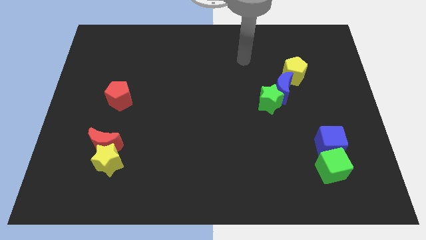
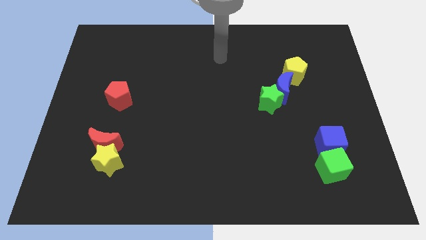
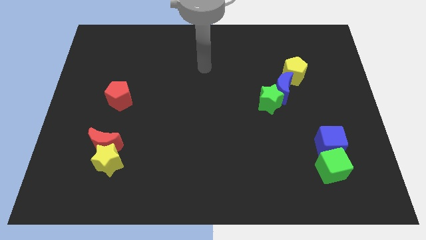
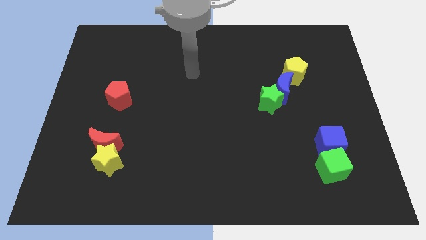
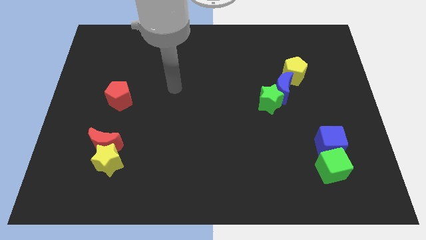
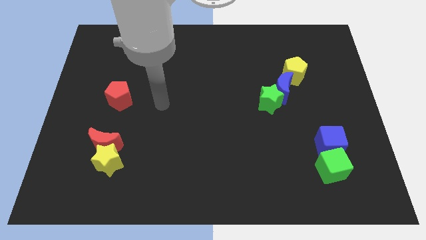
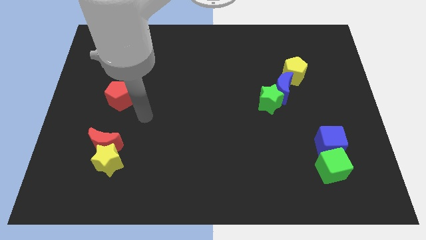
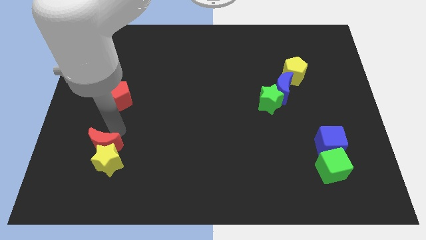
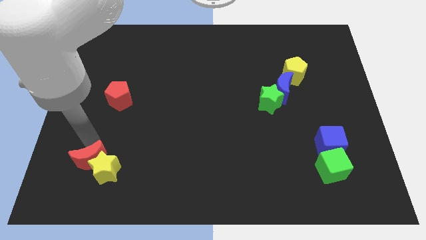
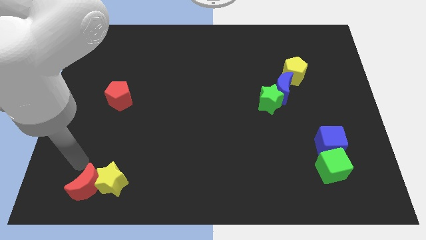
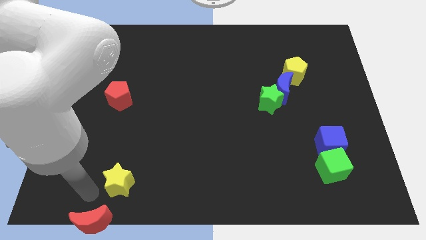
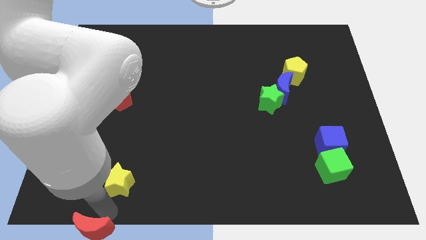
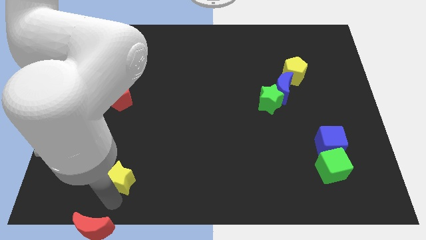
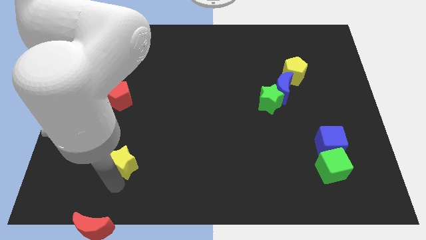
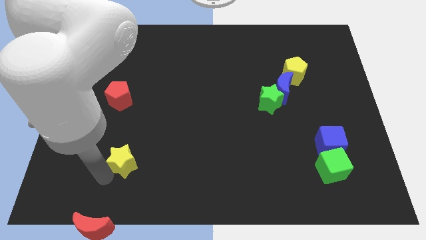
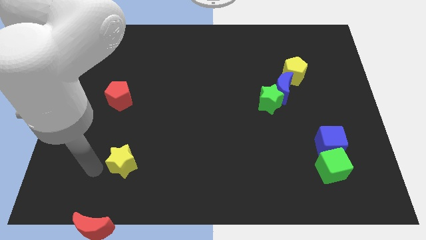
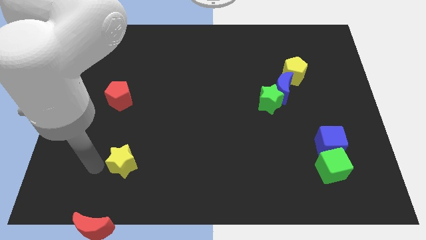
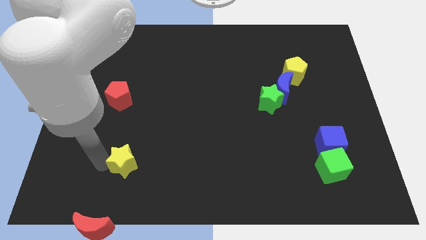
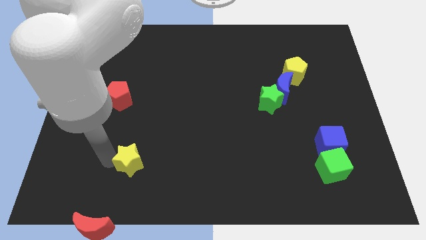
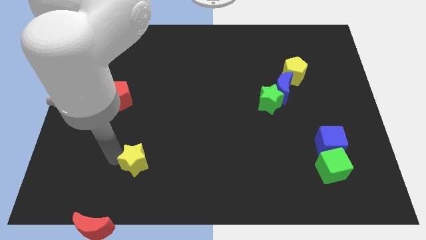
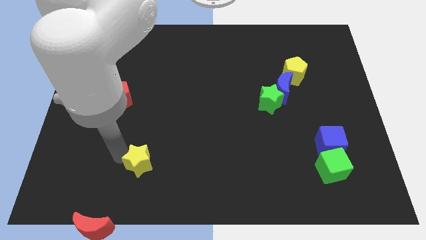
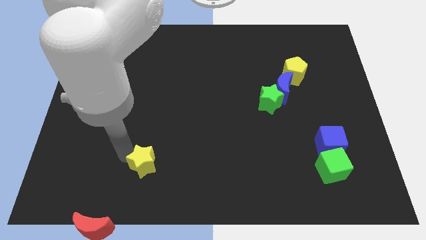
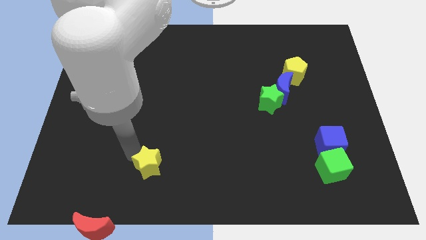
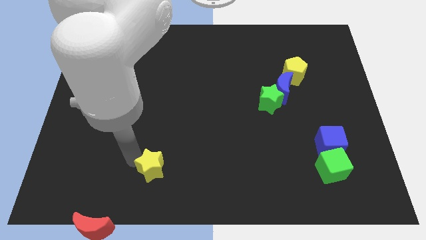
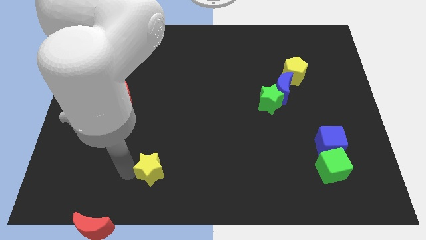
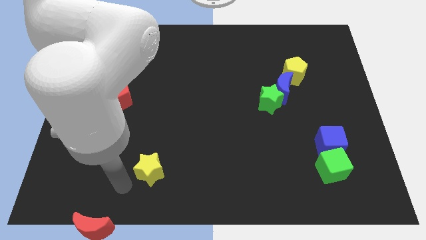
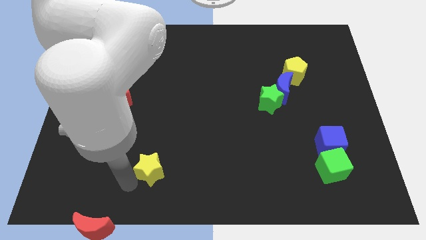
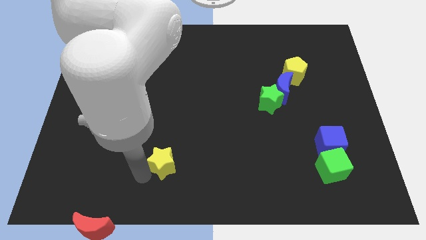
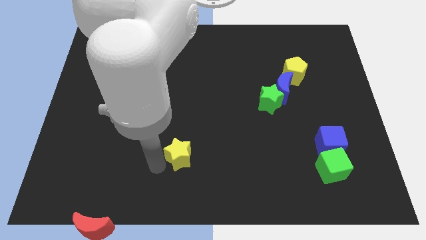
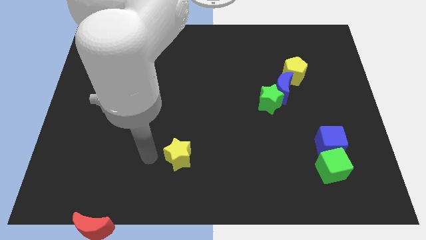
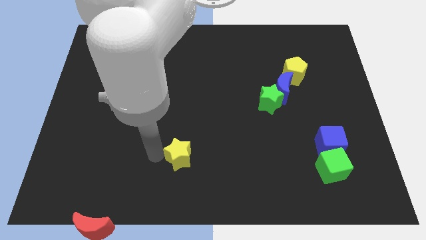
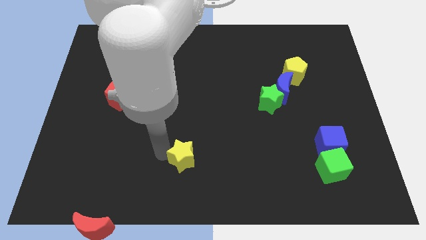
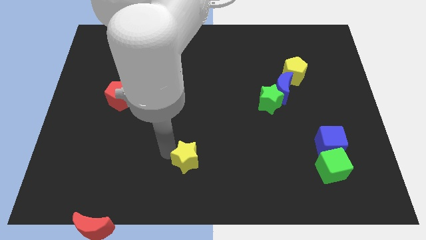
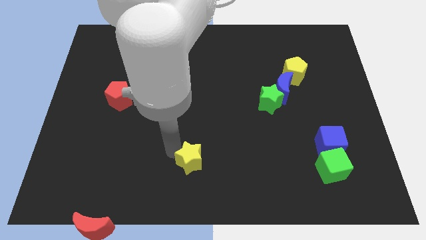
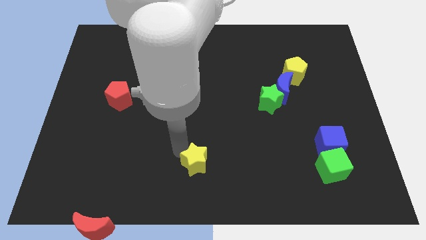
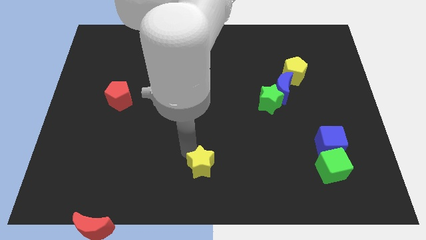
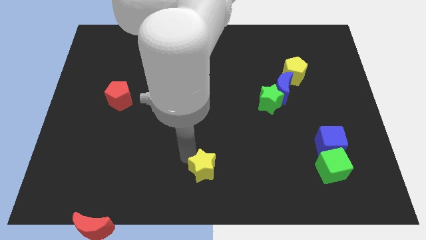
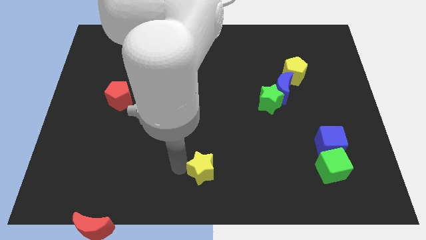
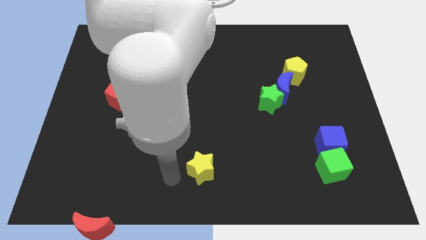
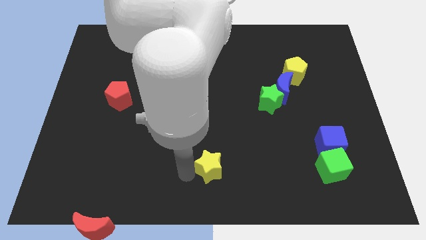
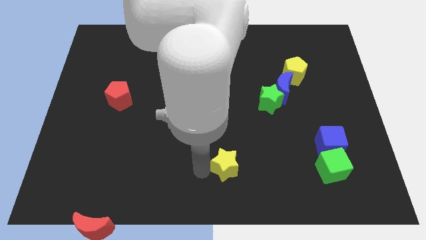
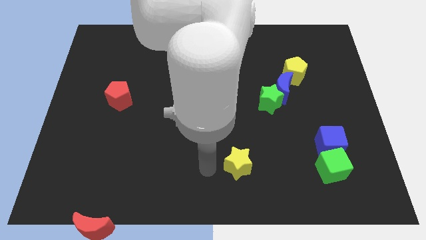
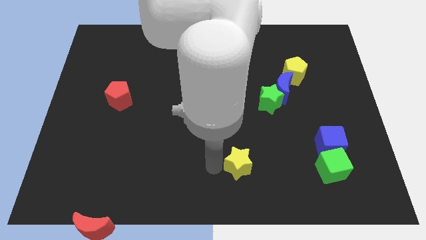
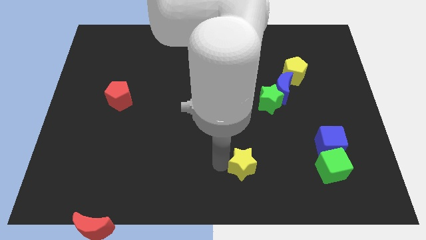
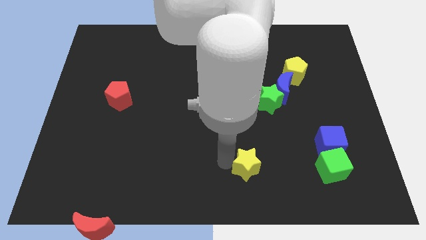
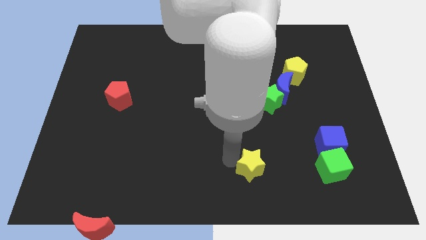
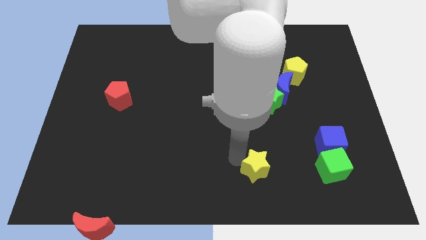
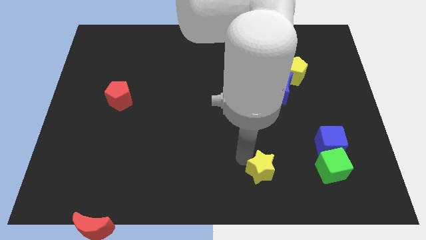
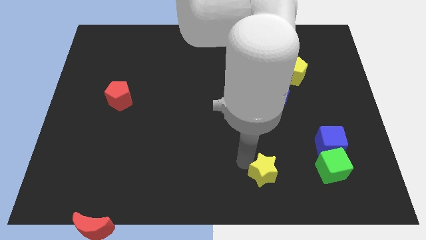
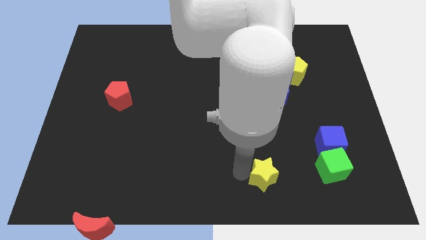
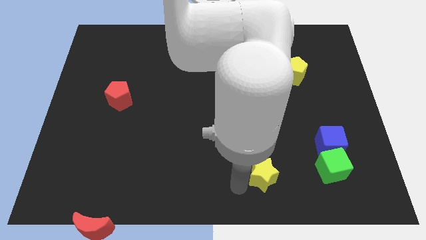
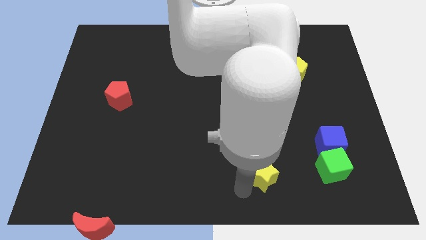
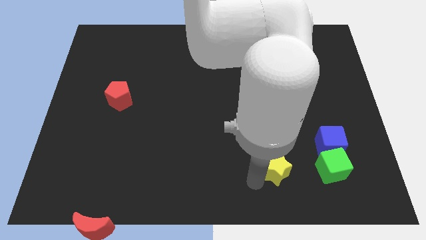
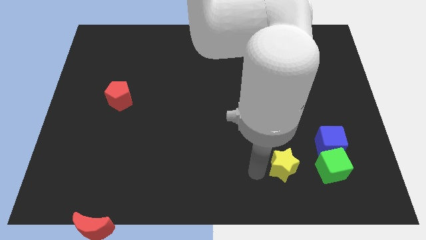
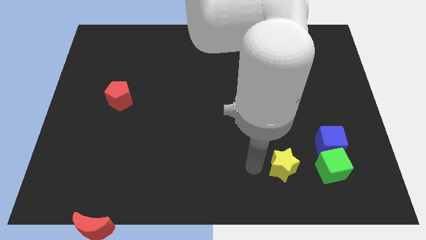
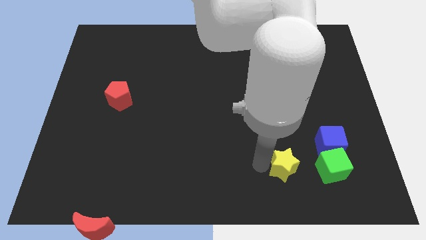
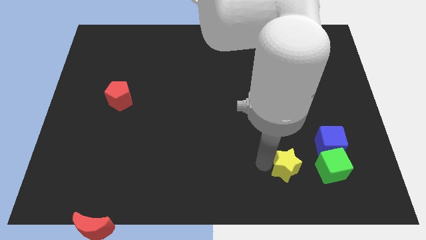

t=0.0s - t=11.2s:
push the yellow star diagonally down and to the left of the blue cube

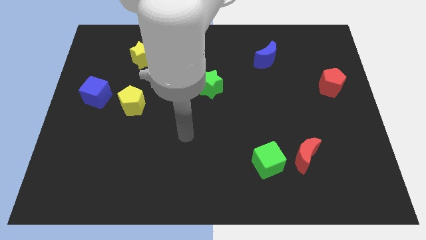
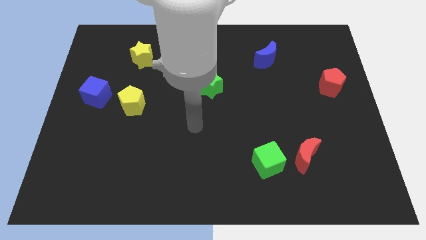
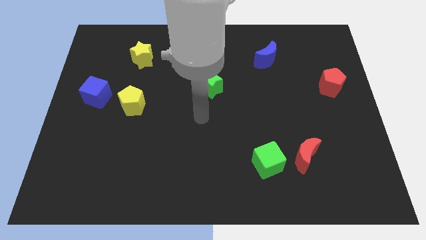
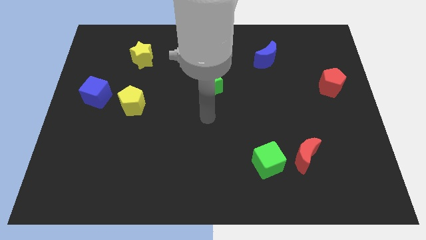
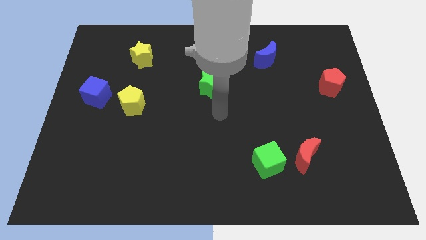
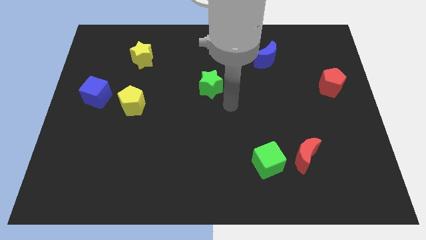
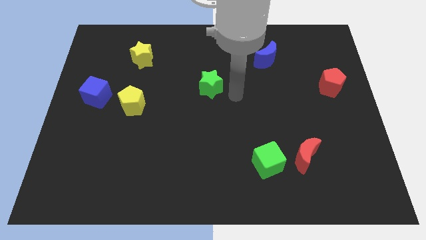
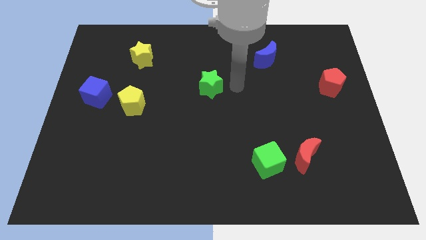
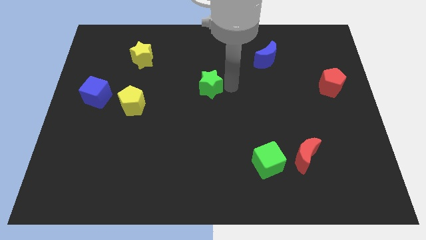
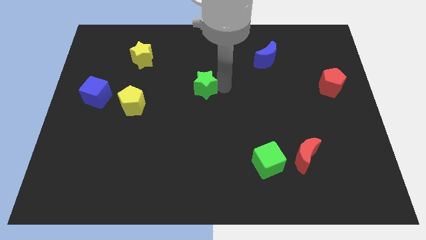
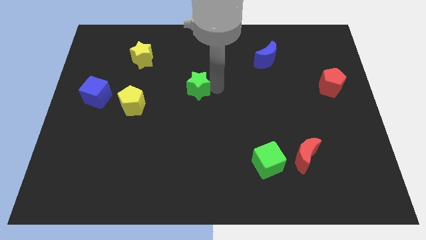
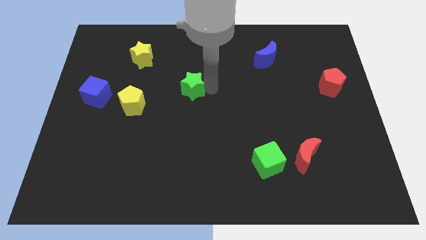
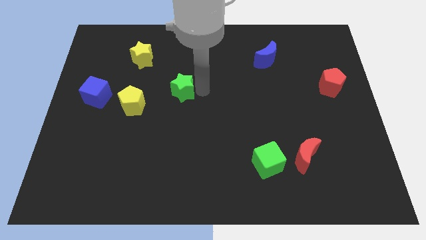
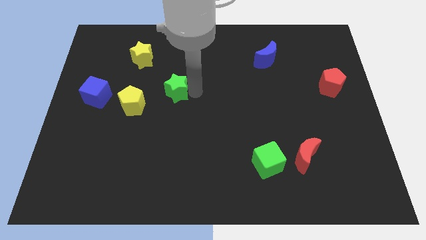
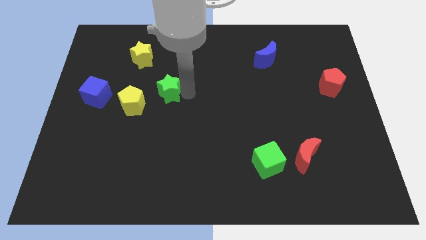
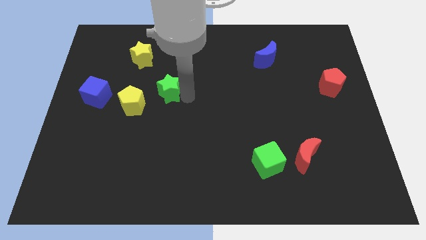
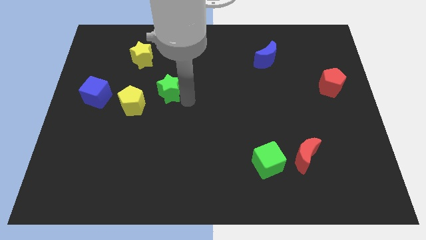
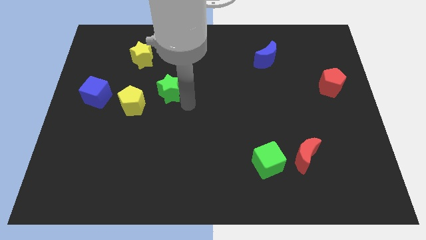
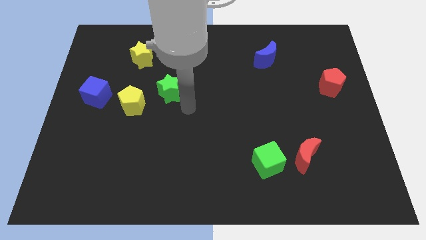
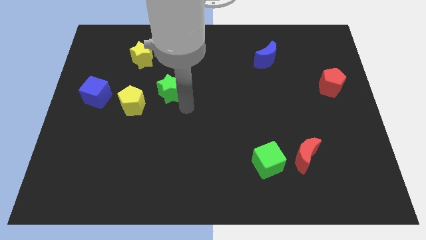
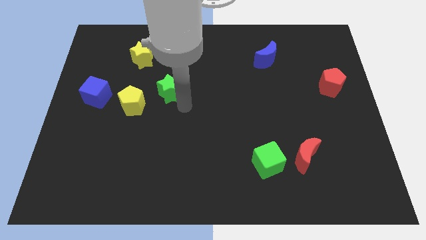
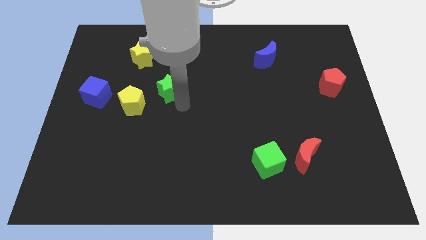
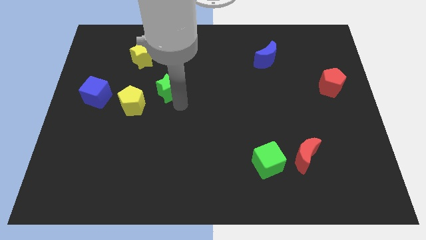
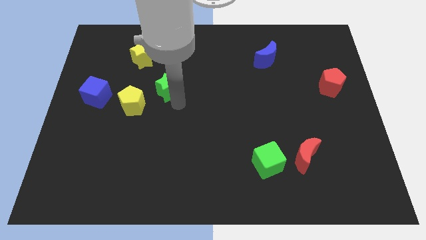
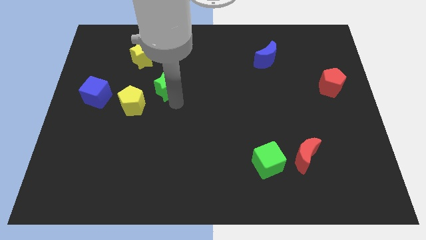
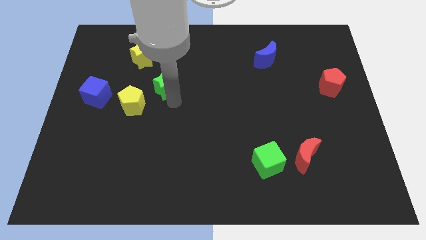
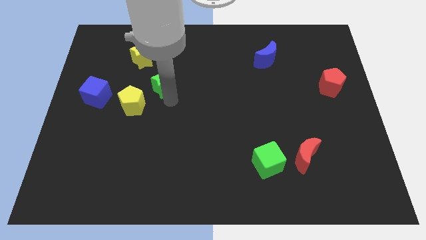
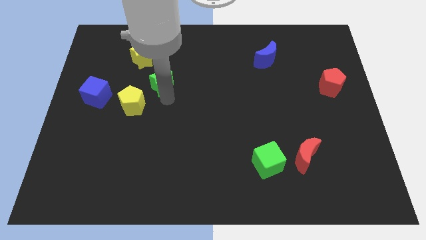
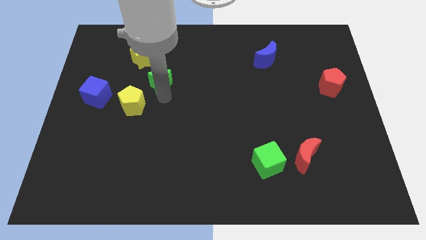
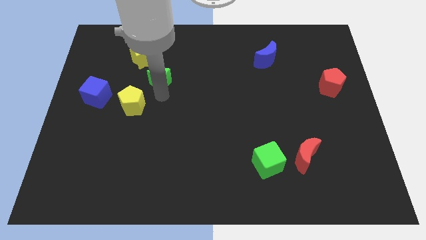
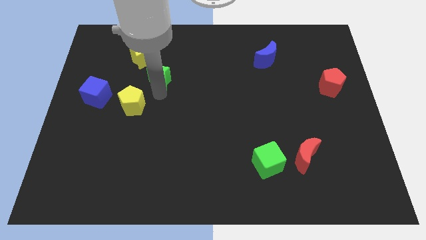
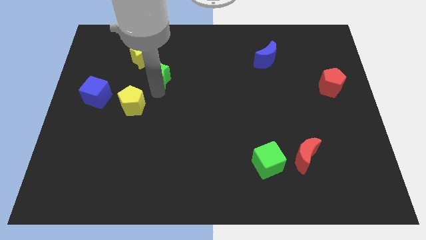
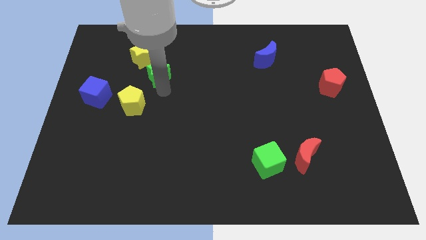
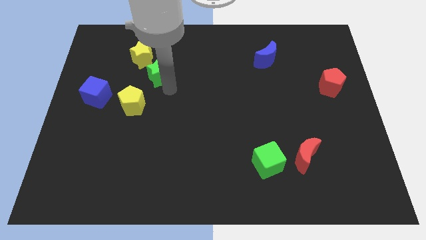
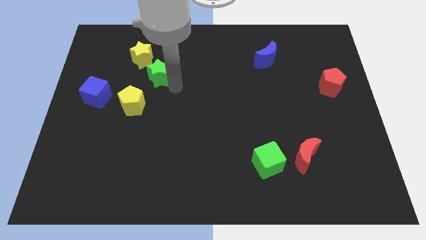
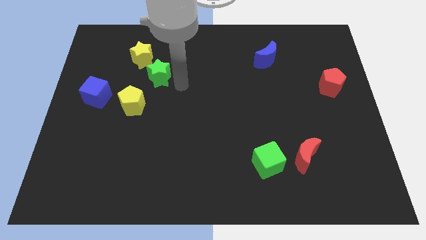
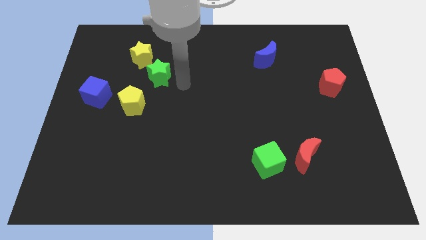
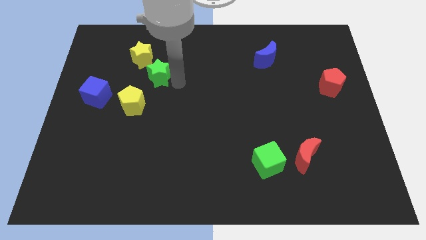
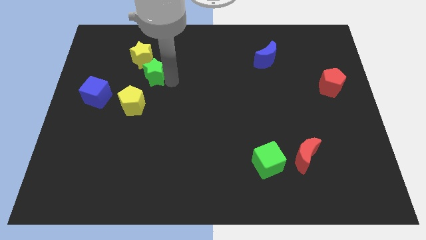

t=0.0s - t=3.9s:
slide the green star to the top of the yellow pentagon
